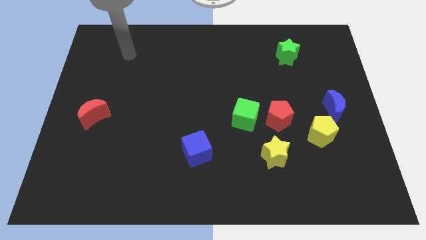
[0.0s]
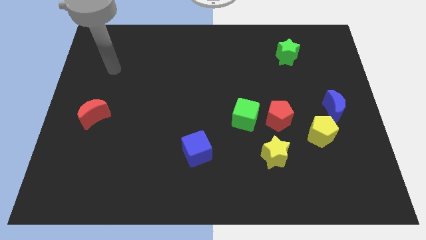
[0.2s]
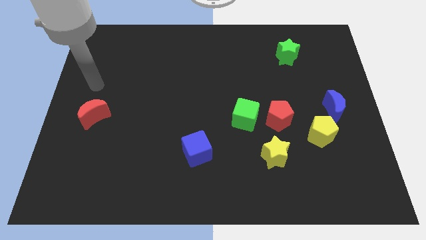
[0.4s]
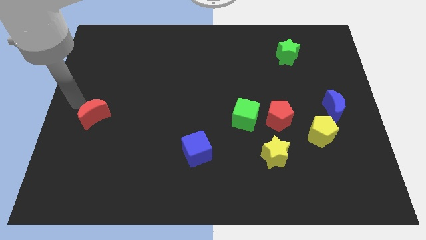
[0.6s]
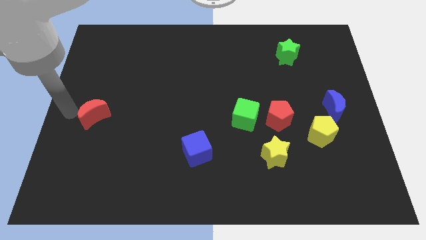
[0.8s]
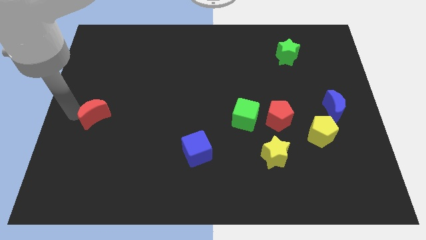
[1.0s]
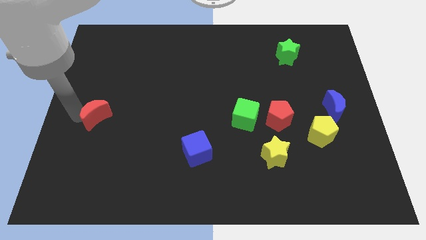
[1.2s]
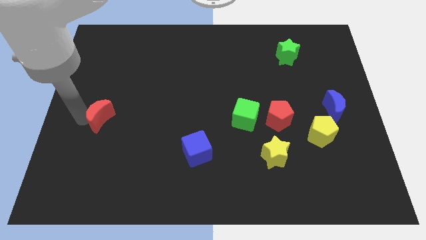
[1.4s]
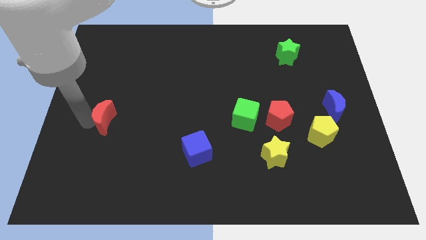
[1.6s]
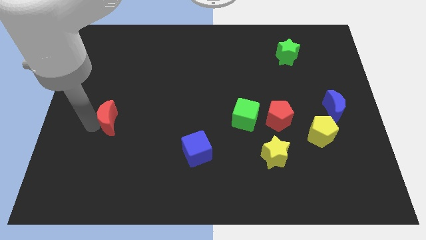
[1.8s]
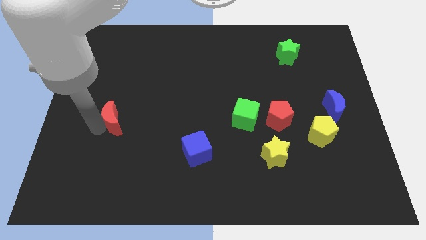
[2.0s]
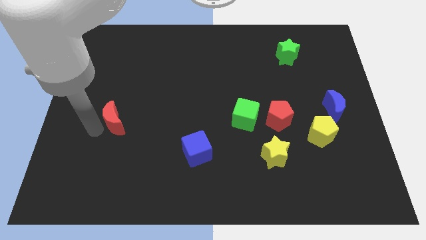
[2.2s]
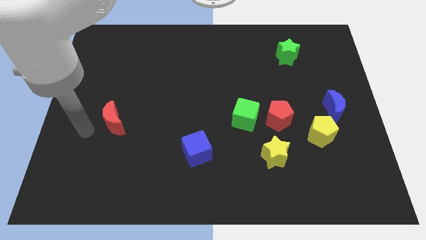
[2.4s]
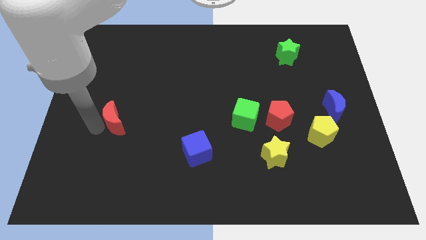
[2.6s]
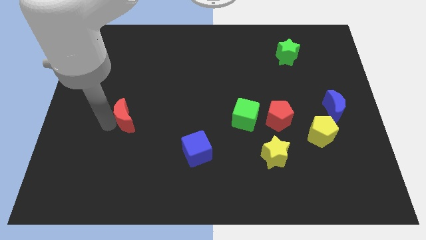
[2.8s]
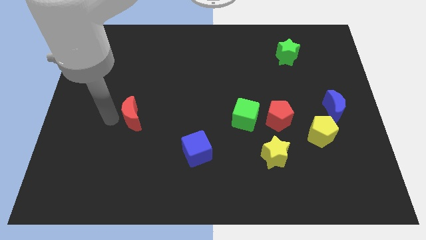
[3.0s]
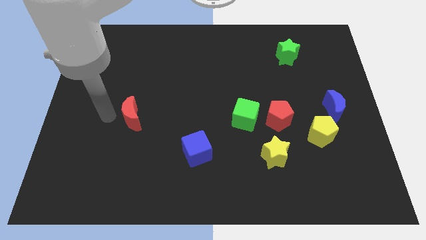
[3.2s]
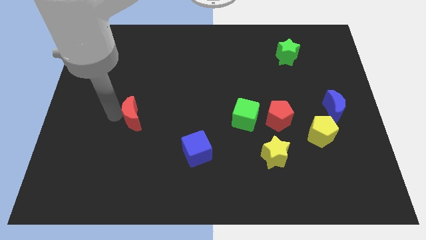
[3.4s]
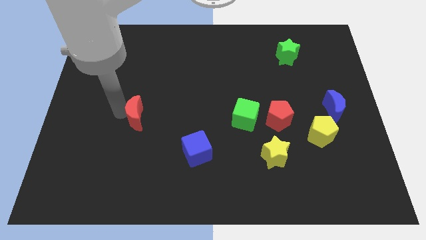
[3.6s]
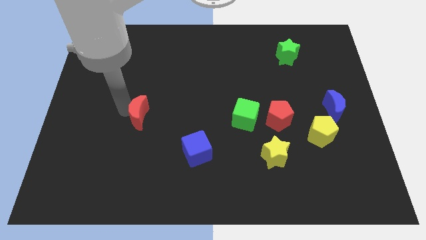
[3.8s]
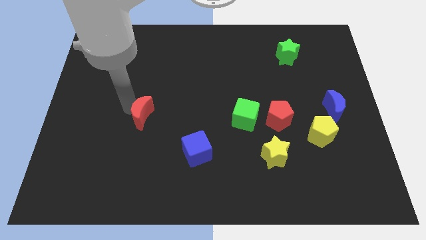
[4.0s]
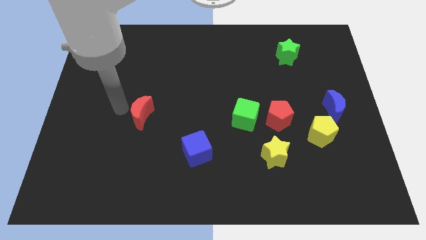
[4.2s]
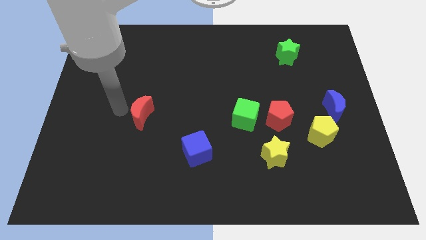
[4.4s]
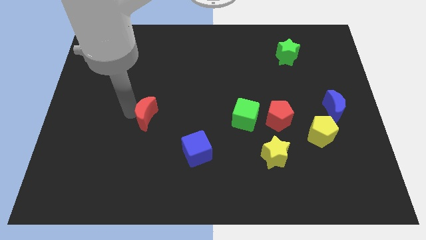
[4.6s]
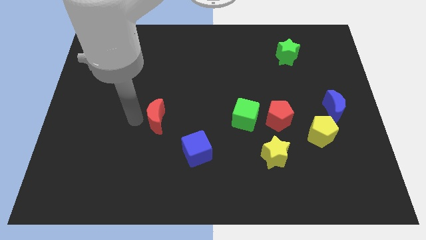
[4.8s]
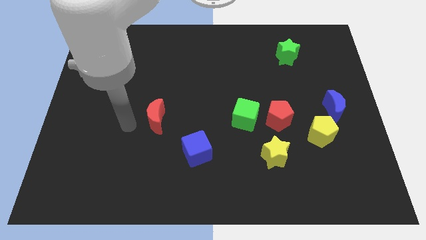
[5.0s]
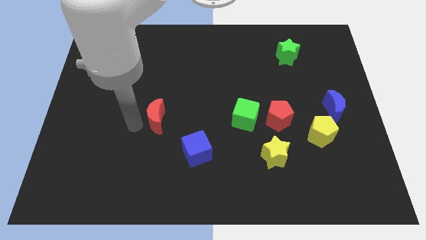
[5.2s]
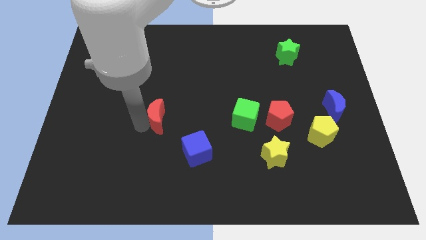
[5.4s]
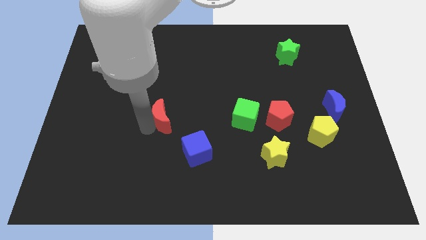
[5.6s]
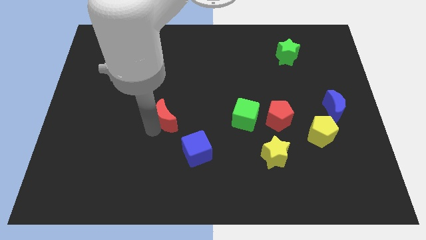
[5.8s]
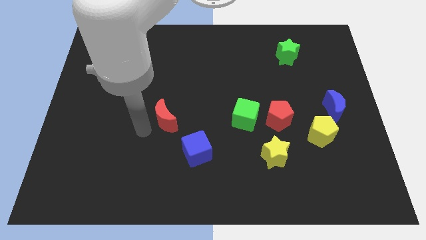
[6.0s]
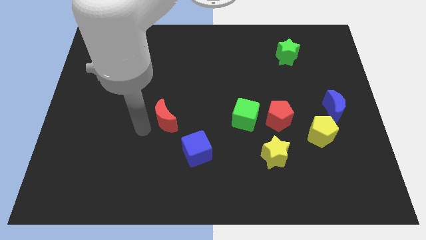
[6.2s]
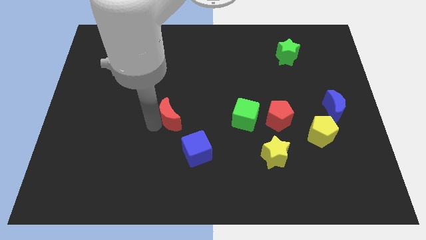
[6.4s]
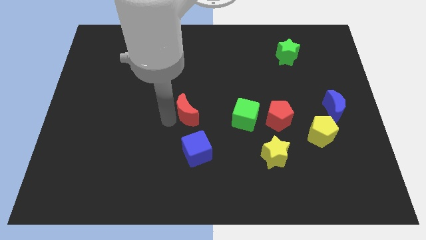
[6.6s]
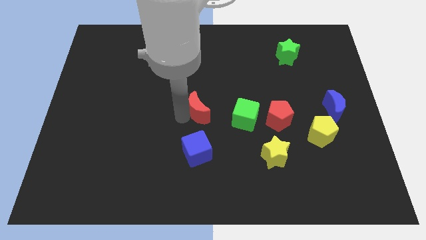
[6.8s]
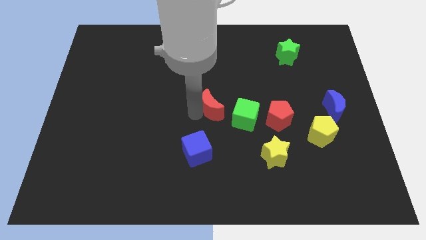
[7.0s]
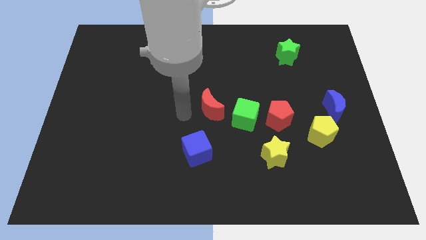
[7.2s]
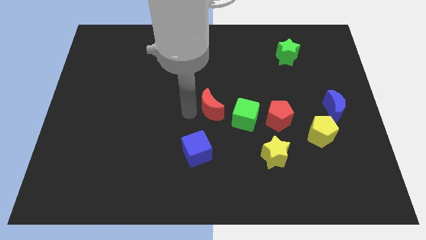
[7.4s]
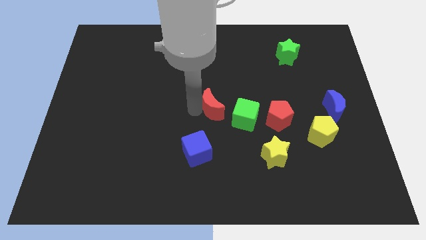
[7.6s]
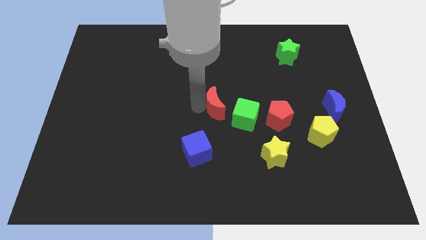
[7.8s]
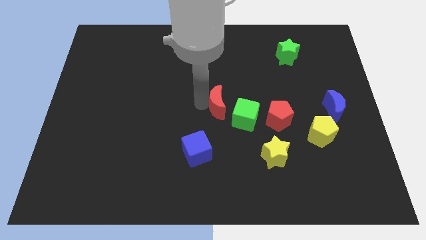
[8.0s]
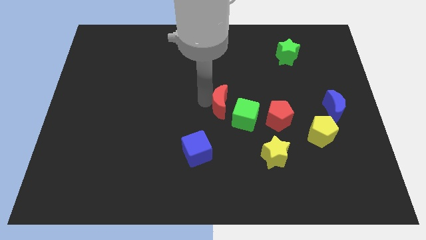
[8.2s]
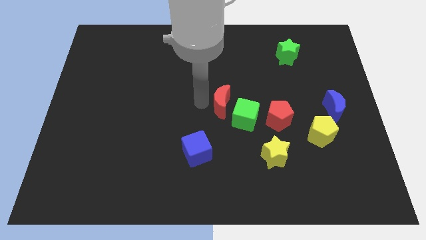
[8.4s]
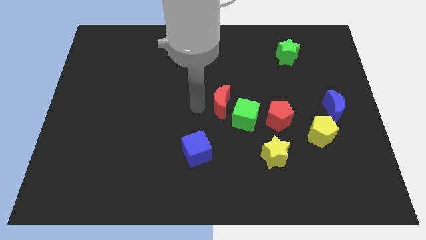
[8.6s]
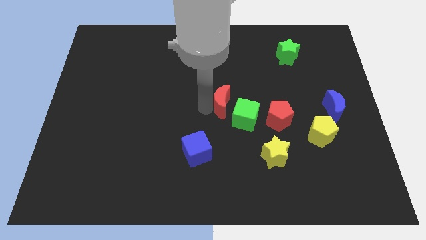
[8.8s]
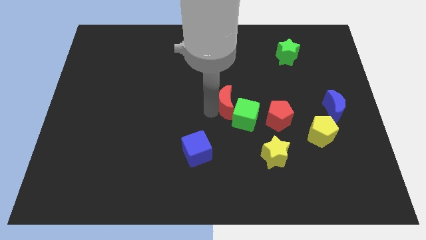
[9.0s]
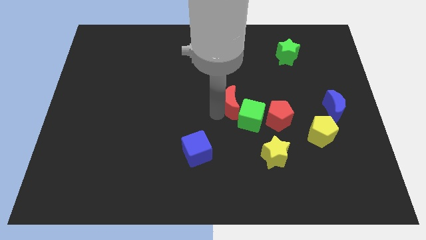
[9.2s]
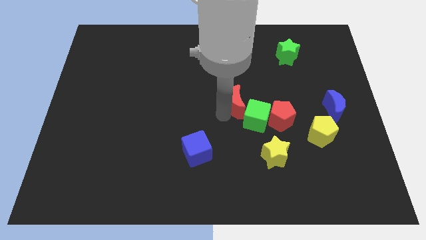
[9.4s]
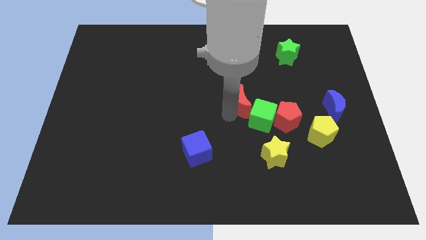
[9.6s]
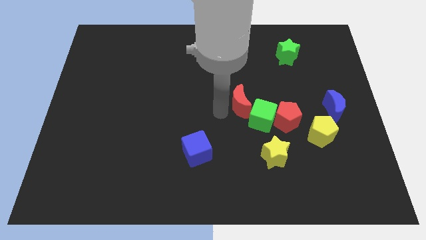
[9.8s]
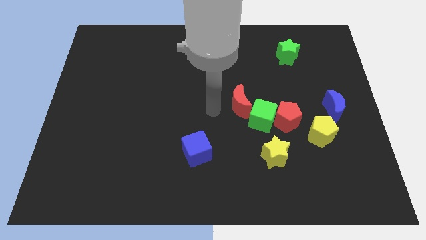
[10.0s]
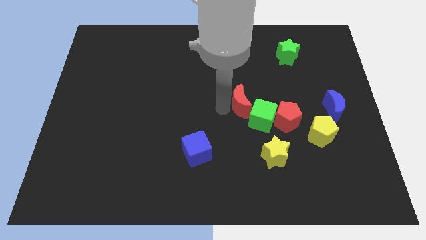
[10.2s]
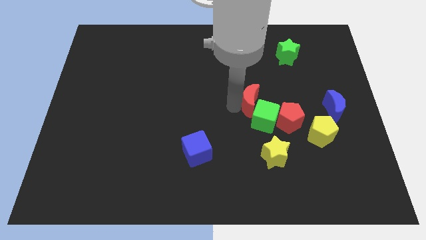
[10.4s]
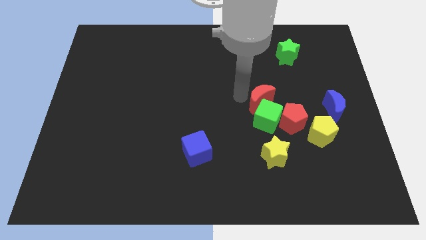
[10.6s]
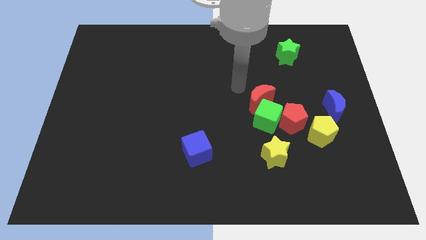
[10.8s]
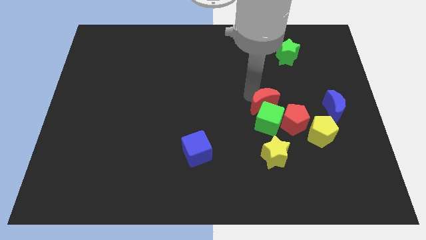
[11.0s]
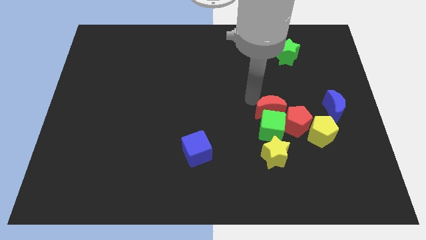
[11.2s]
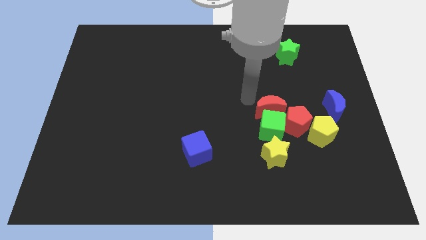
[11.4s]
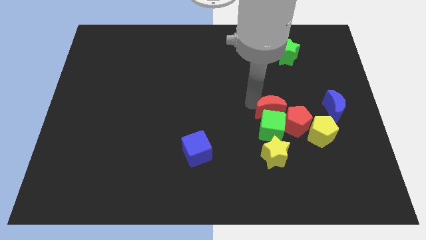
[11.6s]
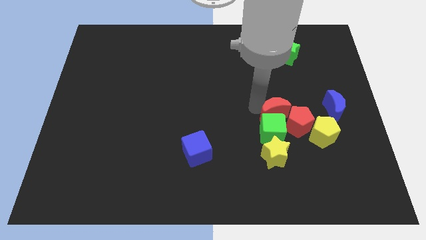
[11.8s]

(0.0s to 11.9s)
push the red moon close to the red pentagon

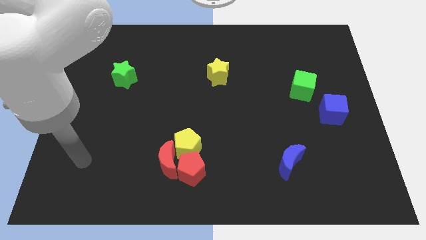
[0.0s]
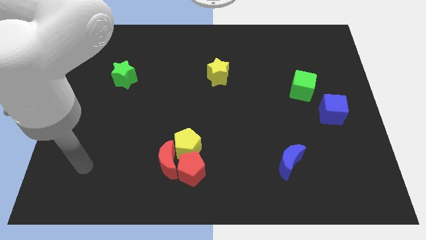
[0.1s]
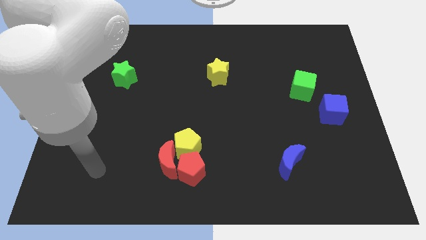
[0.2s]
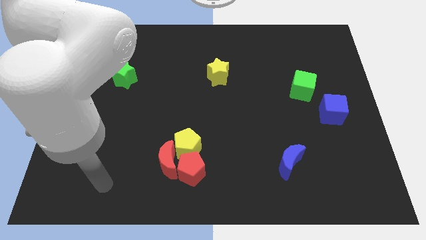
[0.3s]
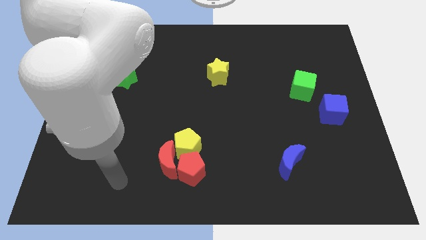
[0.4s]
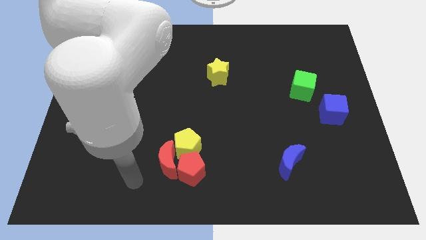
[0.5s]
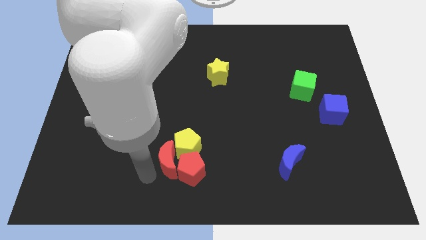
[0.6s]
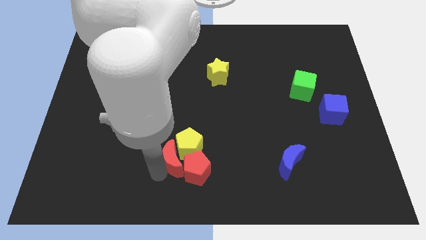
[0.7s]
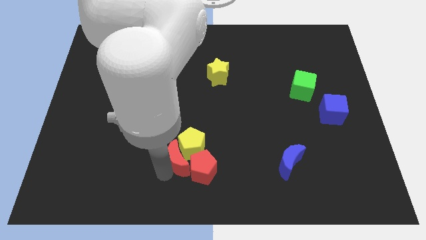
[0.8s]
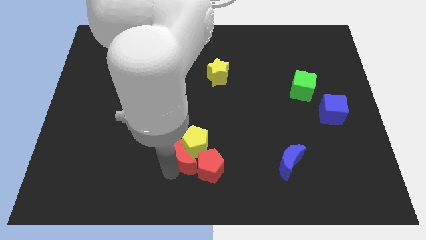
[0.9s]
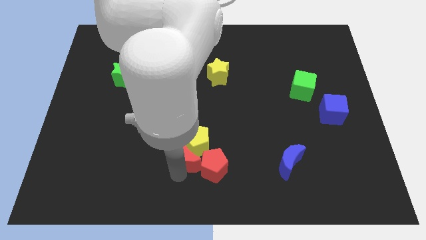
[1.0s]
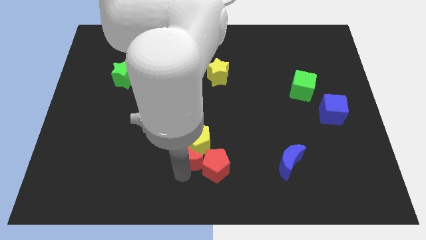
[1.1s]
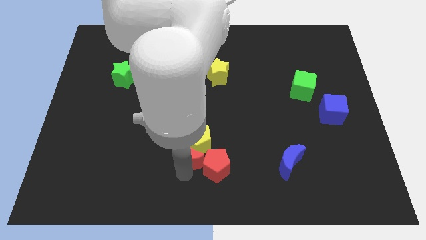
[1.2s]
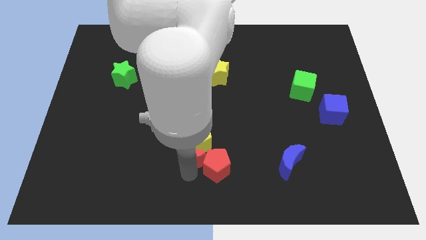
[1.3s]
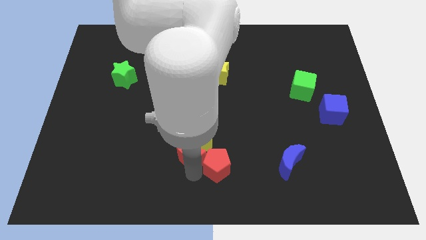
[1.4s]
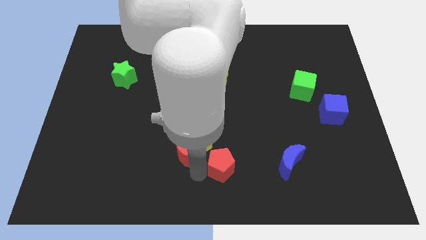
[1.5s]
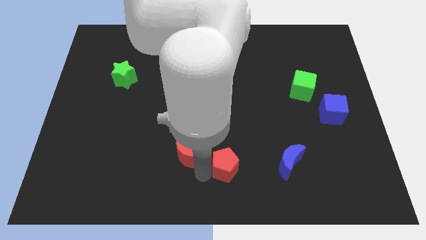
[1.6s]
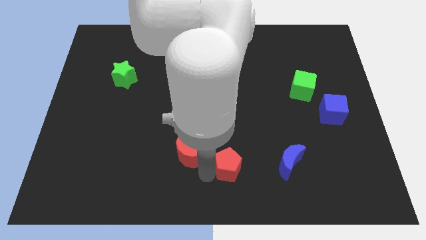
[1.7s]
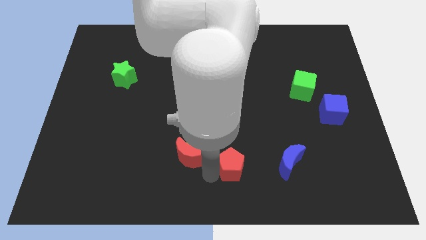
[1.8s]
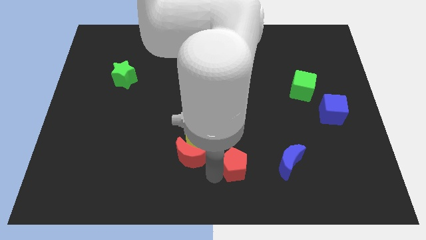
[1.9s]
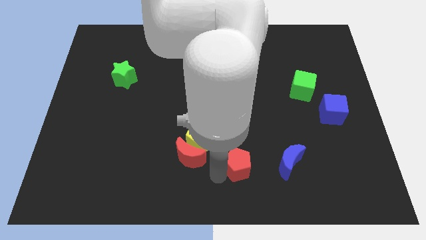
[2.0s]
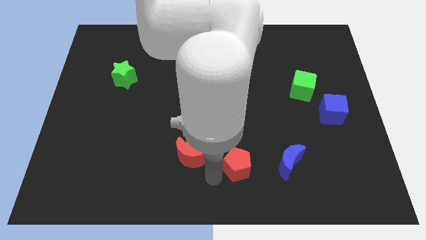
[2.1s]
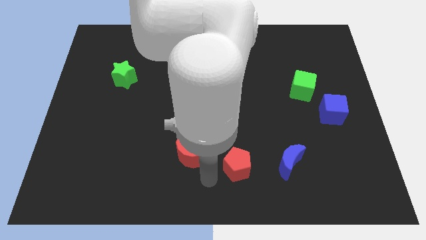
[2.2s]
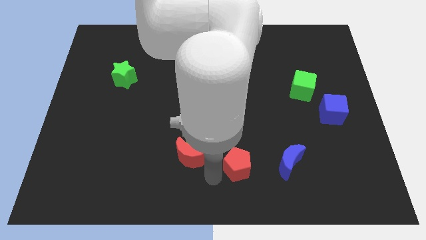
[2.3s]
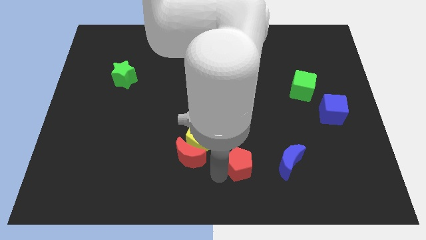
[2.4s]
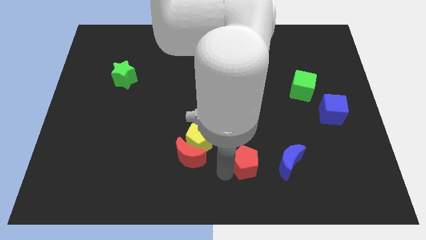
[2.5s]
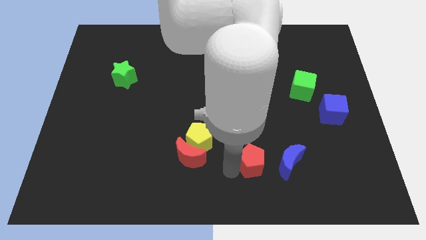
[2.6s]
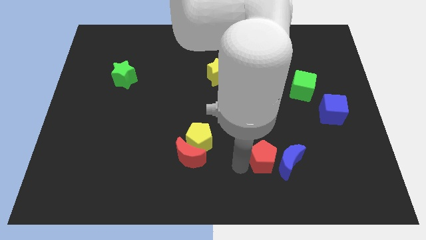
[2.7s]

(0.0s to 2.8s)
put the red pentagon close to the blue moon
